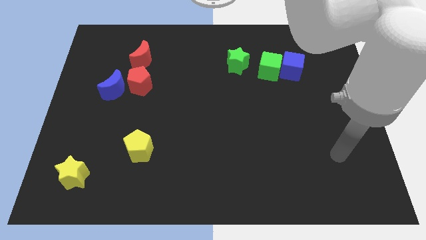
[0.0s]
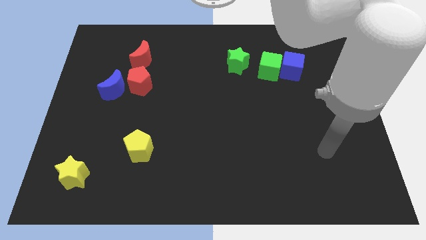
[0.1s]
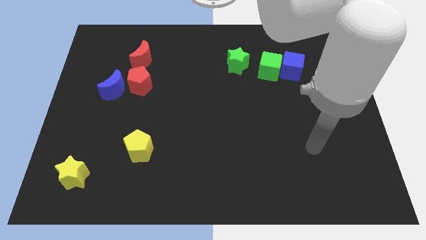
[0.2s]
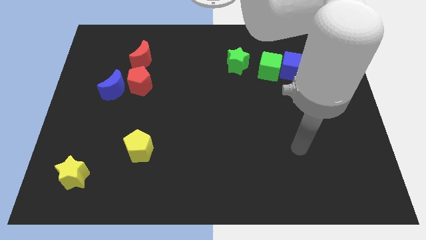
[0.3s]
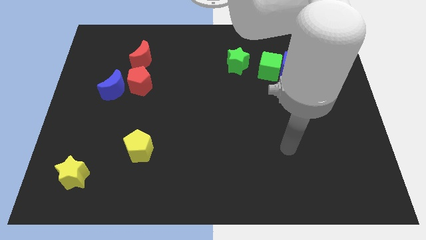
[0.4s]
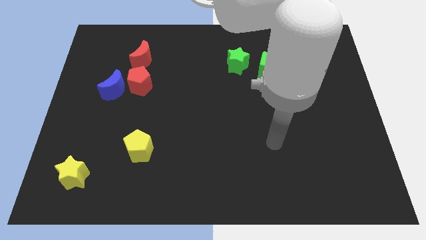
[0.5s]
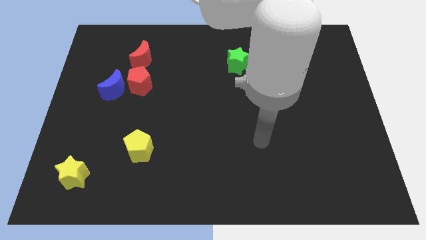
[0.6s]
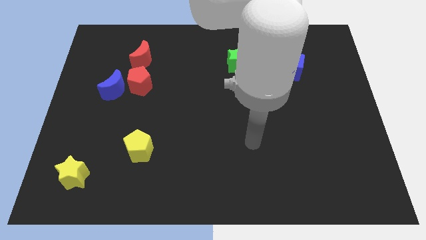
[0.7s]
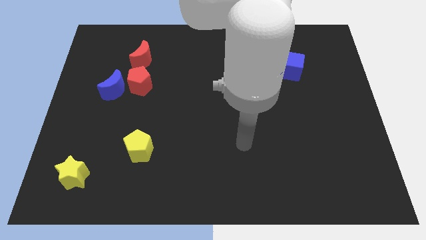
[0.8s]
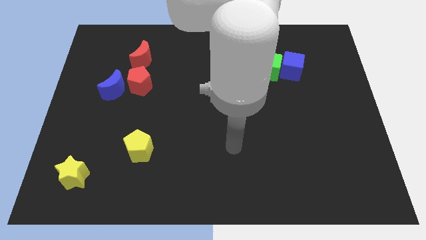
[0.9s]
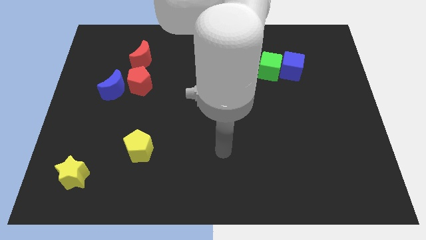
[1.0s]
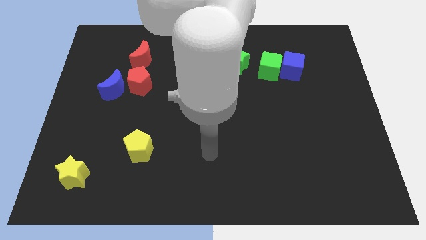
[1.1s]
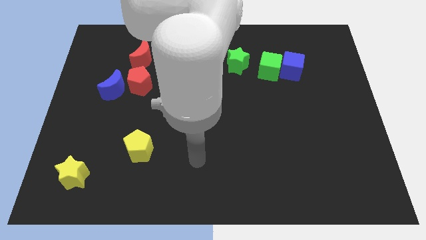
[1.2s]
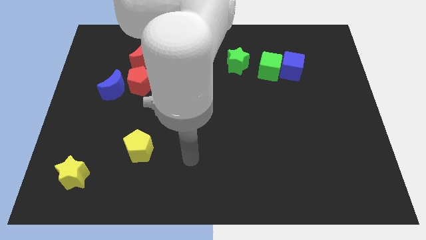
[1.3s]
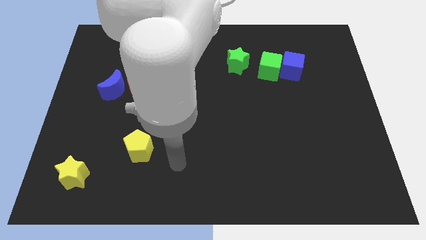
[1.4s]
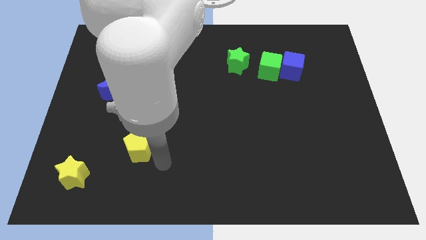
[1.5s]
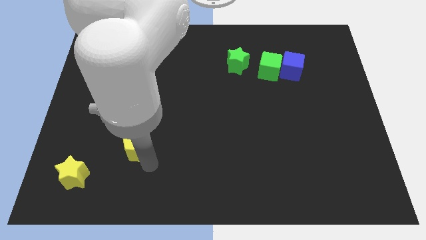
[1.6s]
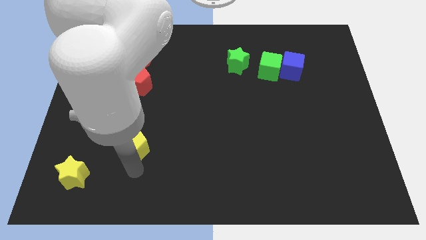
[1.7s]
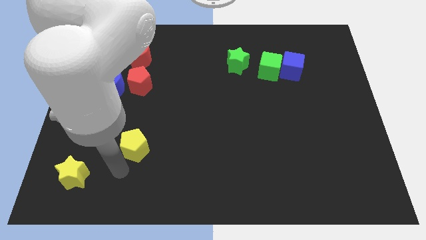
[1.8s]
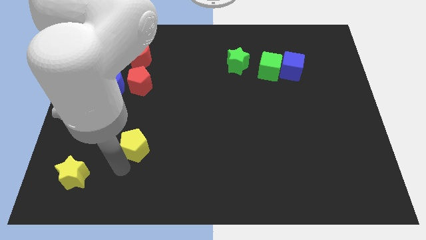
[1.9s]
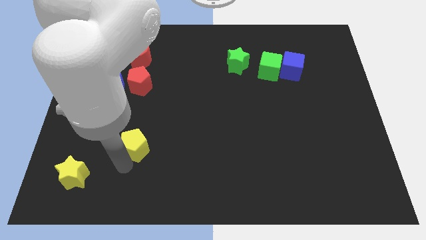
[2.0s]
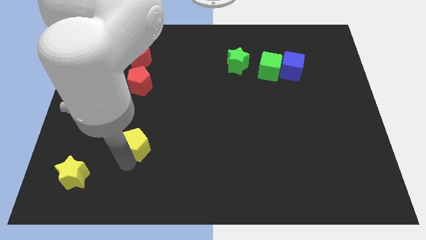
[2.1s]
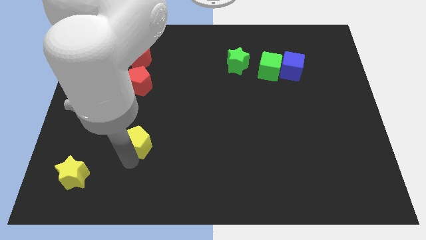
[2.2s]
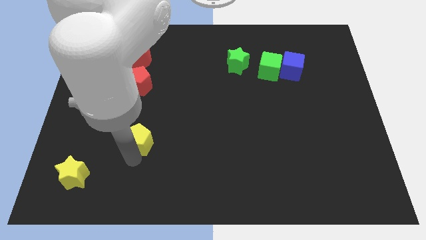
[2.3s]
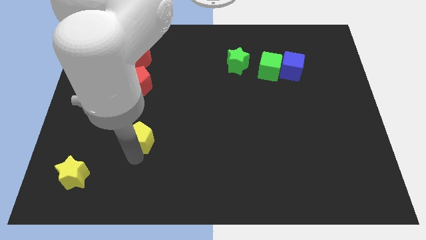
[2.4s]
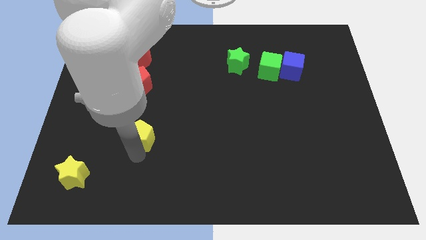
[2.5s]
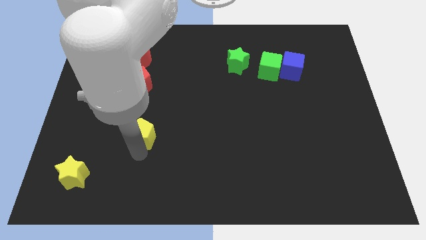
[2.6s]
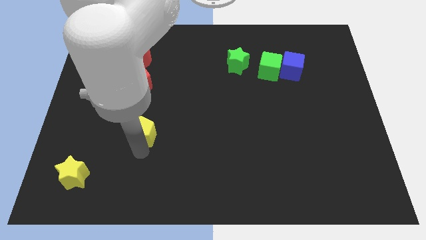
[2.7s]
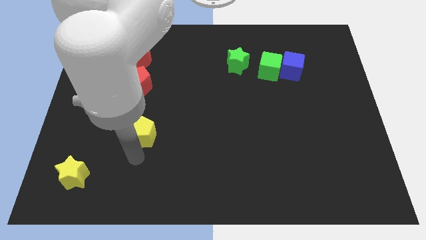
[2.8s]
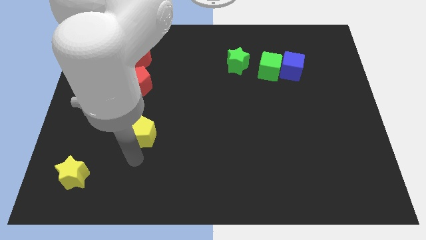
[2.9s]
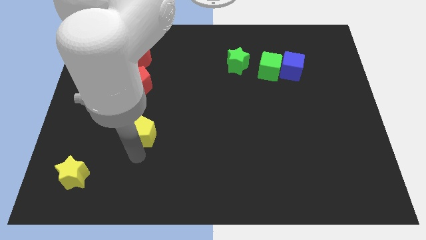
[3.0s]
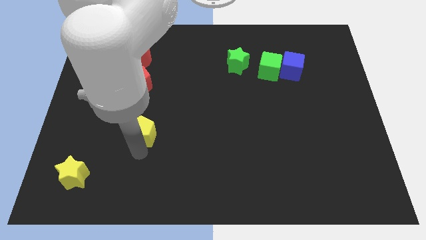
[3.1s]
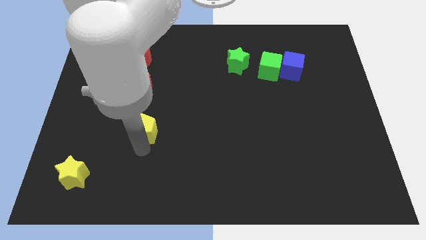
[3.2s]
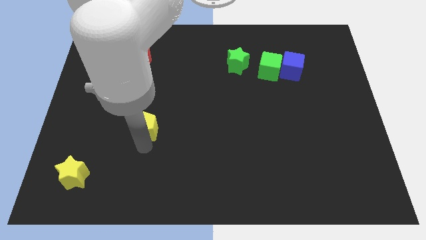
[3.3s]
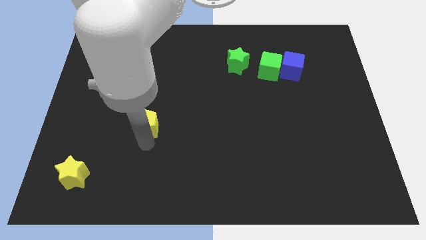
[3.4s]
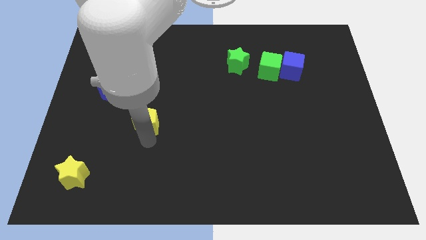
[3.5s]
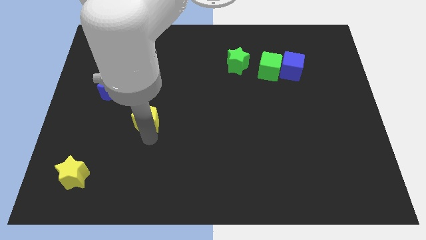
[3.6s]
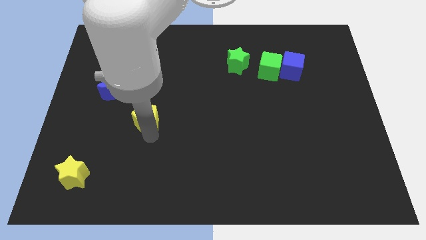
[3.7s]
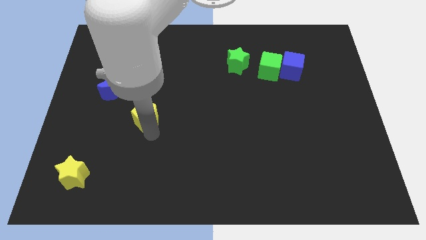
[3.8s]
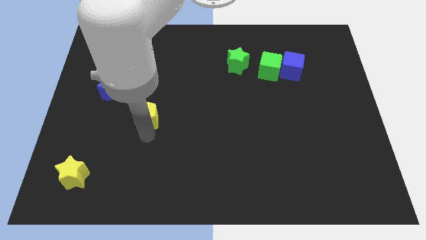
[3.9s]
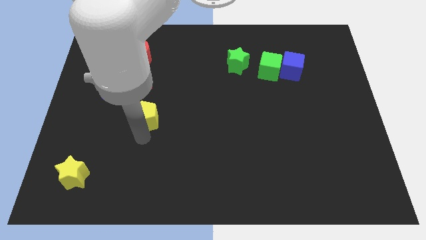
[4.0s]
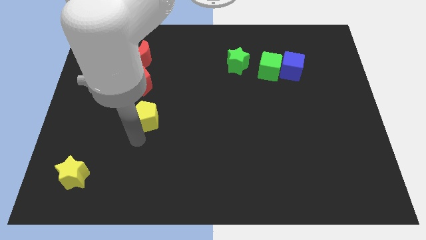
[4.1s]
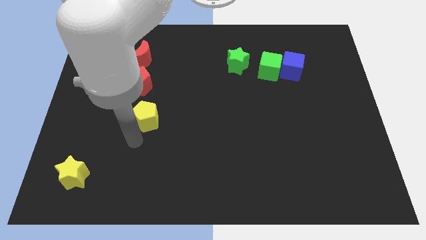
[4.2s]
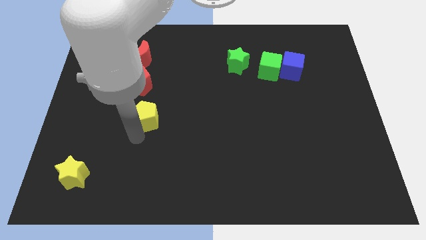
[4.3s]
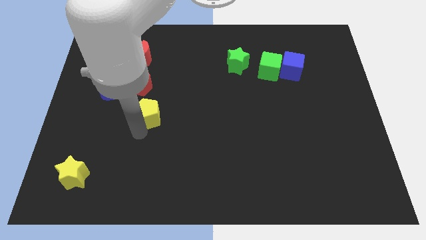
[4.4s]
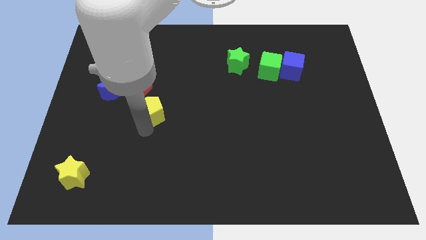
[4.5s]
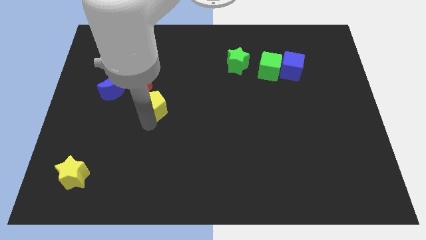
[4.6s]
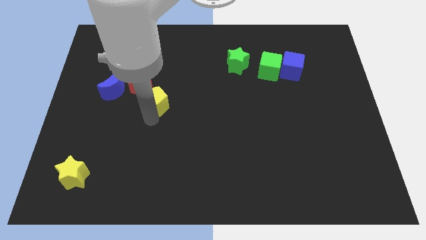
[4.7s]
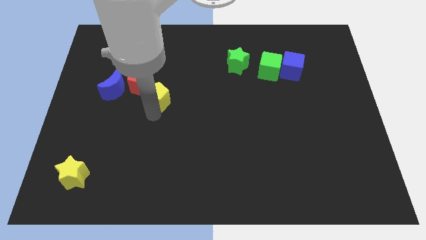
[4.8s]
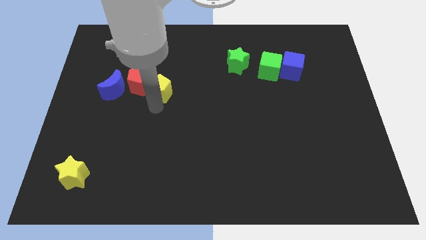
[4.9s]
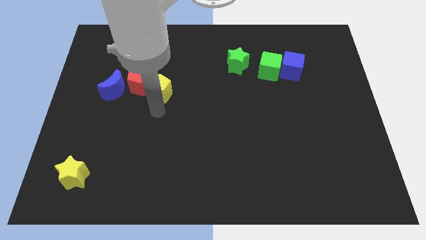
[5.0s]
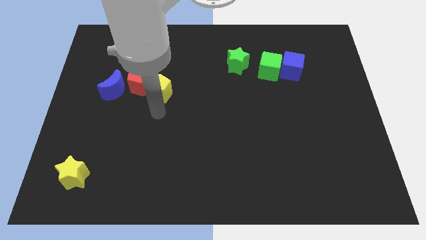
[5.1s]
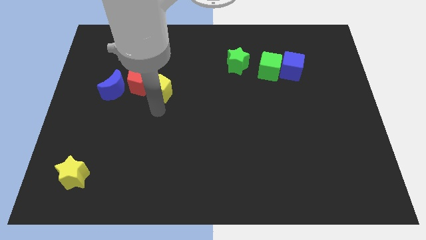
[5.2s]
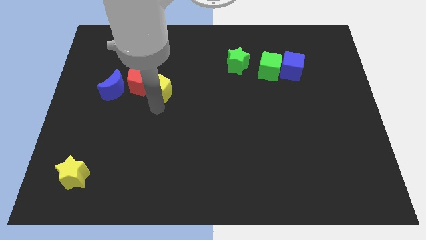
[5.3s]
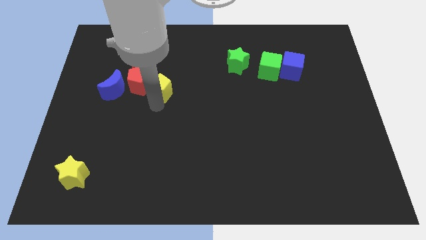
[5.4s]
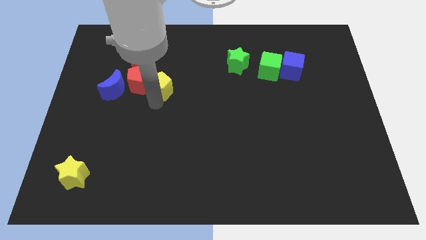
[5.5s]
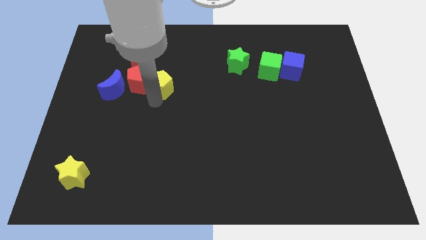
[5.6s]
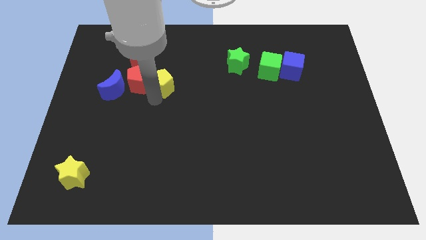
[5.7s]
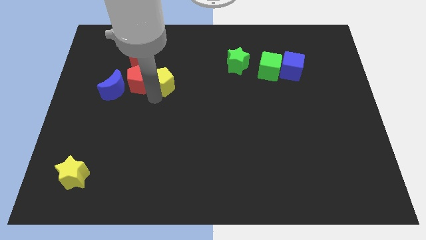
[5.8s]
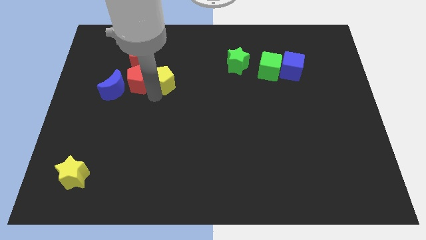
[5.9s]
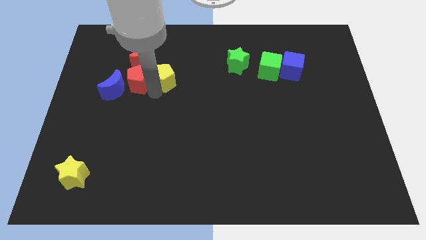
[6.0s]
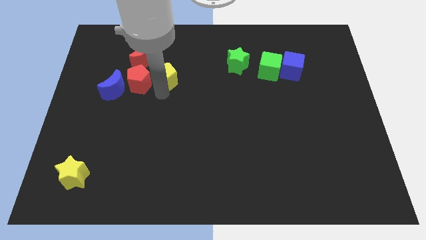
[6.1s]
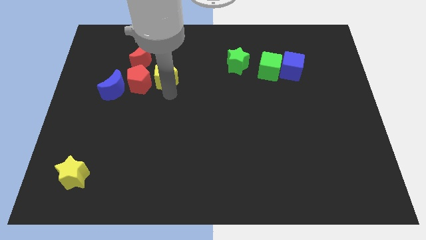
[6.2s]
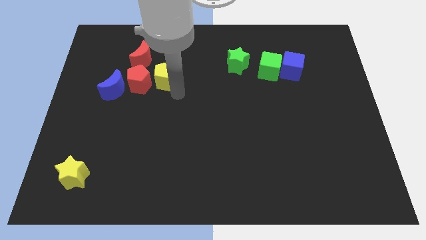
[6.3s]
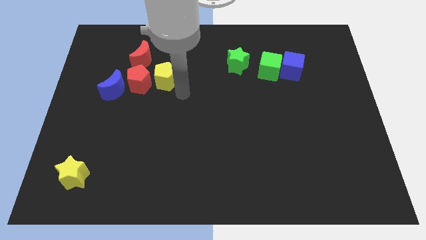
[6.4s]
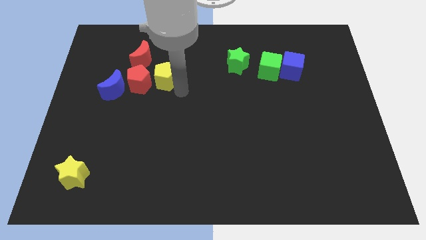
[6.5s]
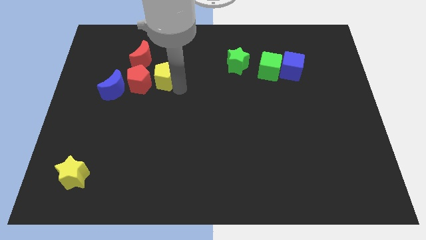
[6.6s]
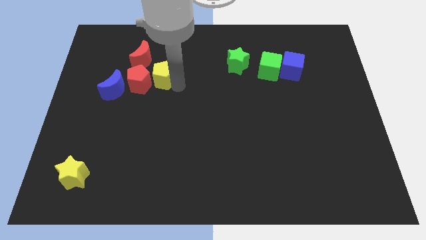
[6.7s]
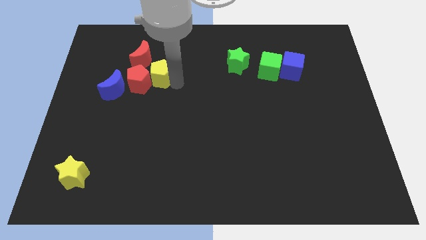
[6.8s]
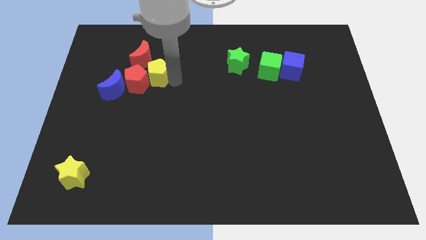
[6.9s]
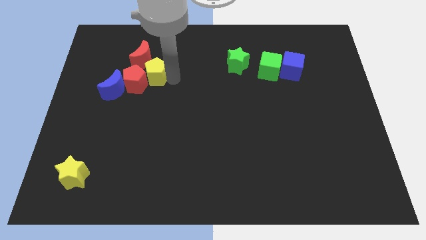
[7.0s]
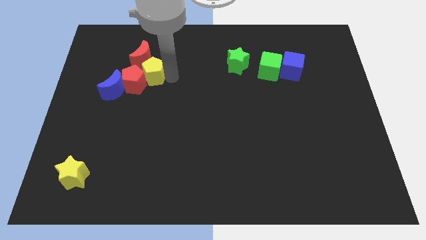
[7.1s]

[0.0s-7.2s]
put the yellow pentagon to the red moon
